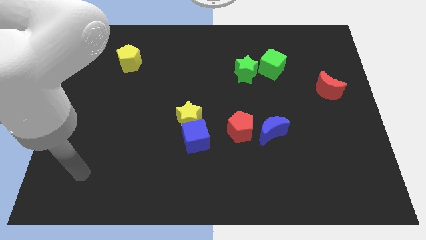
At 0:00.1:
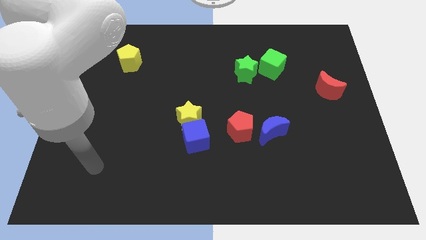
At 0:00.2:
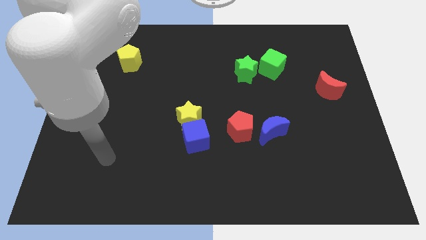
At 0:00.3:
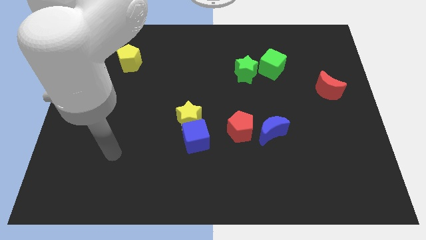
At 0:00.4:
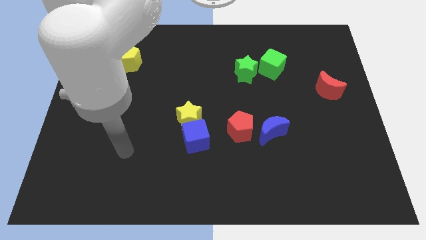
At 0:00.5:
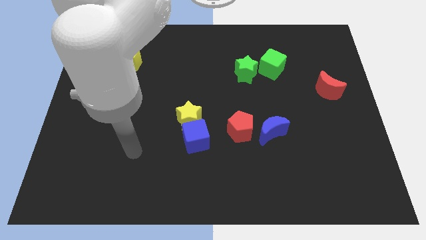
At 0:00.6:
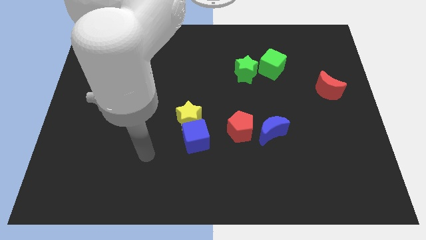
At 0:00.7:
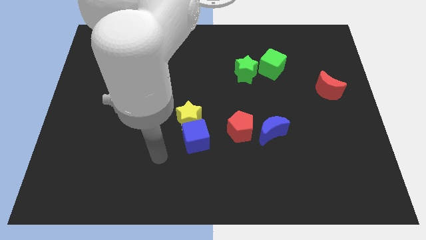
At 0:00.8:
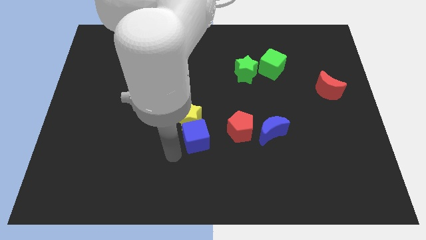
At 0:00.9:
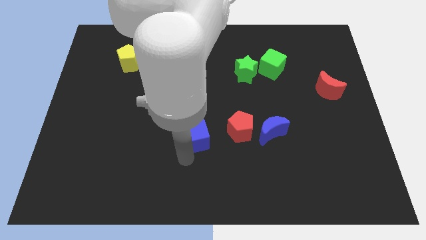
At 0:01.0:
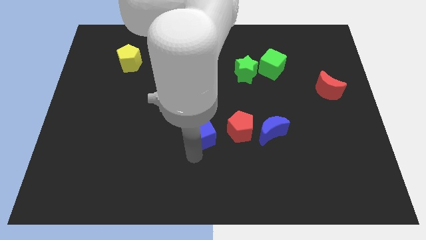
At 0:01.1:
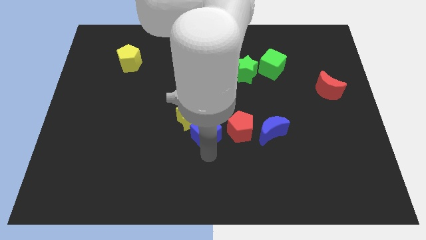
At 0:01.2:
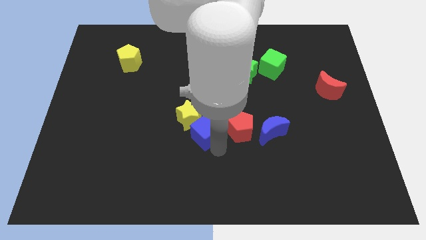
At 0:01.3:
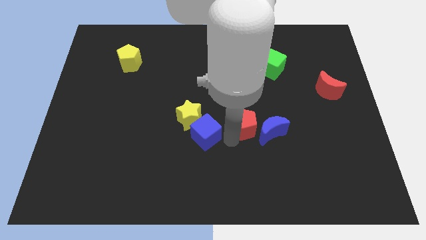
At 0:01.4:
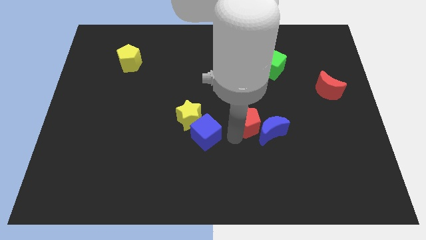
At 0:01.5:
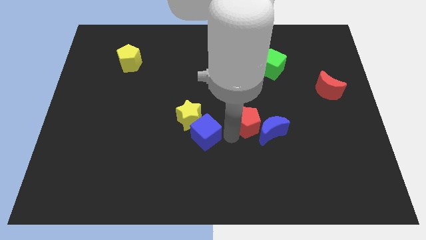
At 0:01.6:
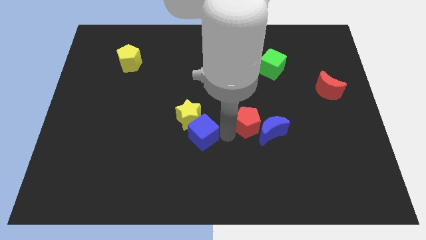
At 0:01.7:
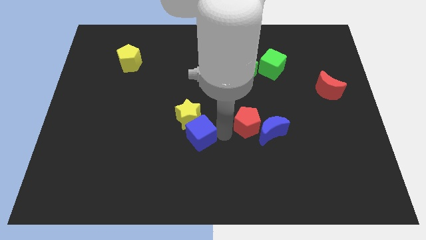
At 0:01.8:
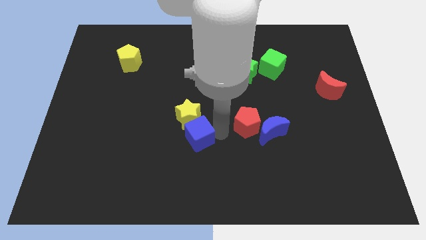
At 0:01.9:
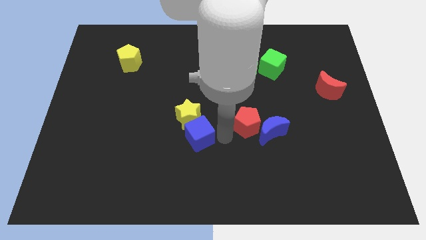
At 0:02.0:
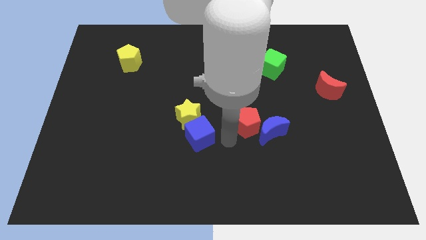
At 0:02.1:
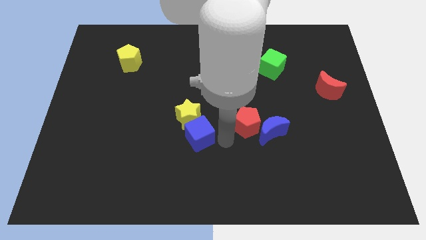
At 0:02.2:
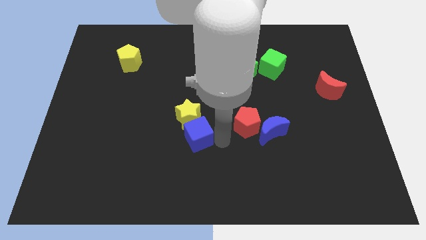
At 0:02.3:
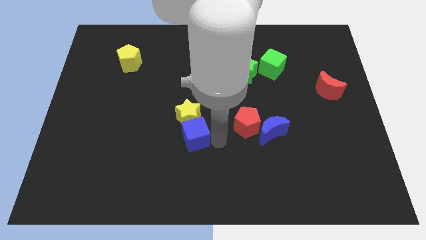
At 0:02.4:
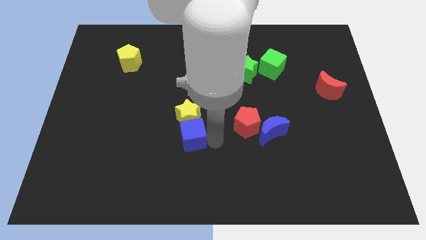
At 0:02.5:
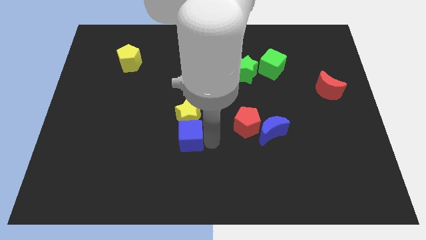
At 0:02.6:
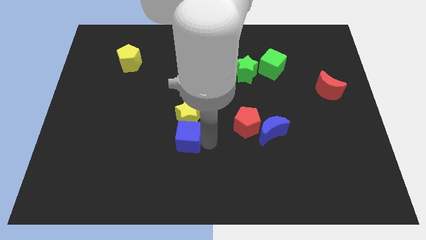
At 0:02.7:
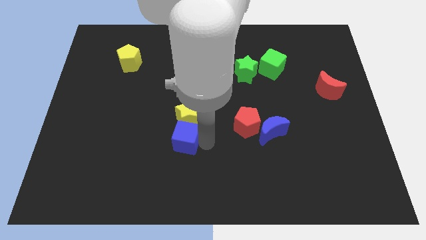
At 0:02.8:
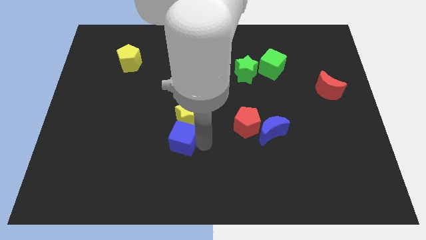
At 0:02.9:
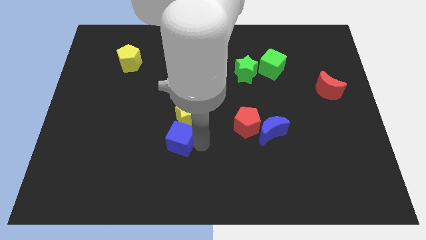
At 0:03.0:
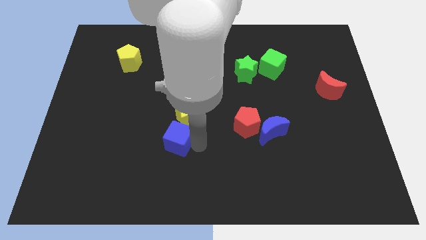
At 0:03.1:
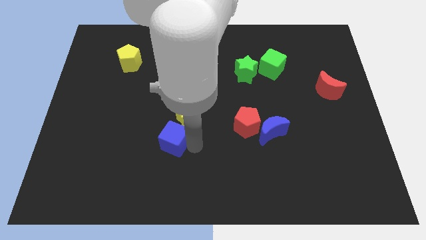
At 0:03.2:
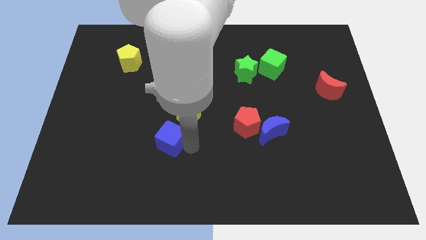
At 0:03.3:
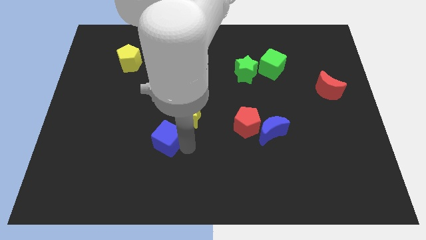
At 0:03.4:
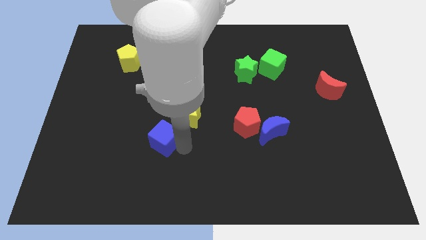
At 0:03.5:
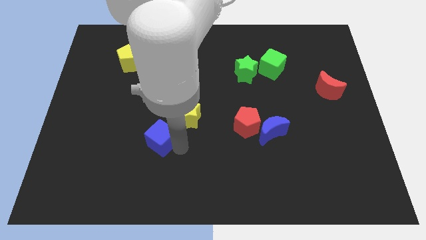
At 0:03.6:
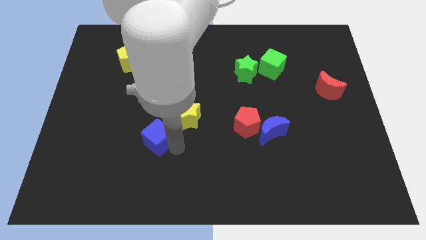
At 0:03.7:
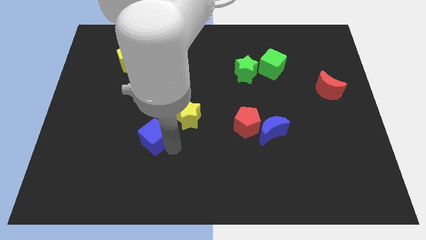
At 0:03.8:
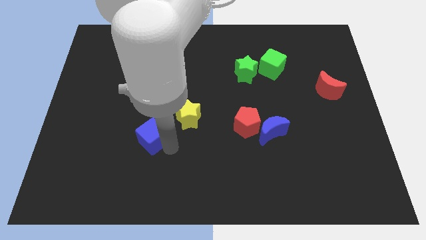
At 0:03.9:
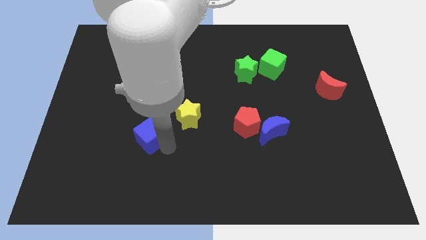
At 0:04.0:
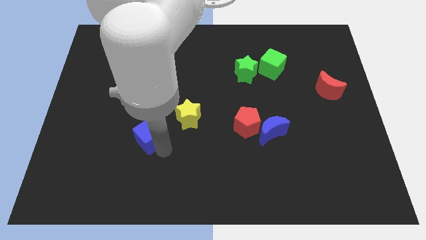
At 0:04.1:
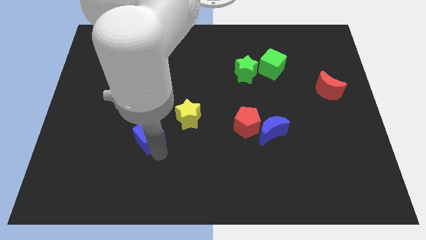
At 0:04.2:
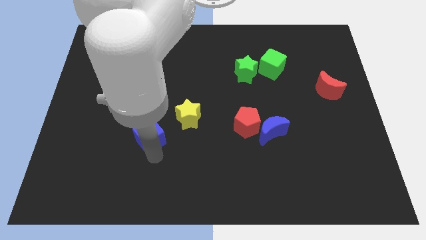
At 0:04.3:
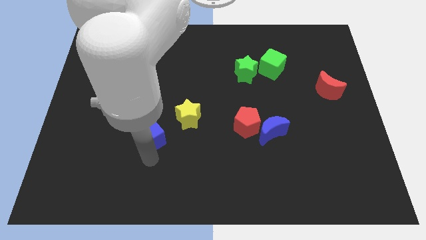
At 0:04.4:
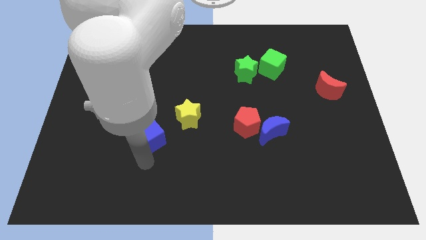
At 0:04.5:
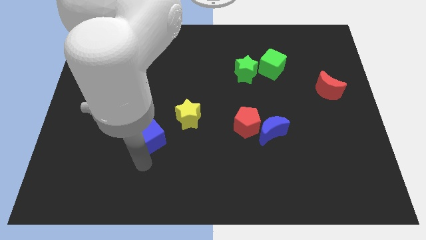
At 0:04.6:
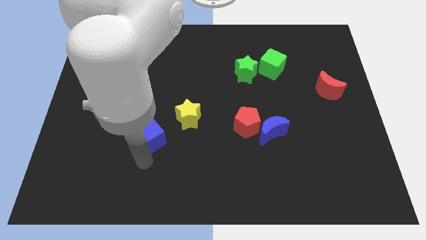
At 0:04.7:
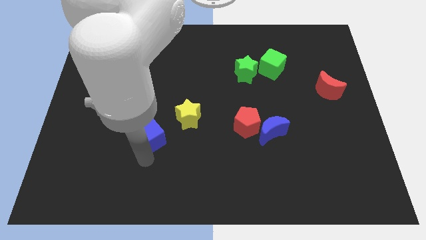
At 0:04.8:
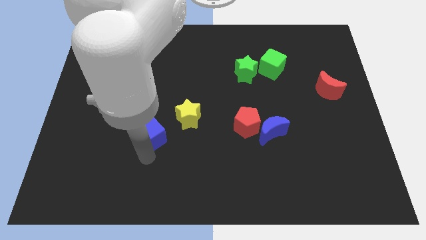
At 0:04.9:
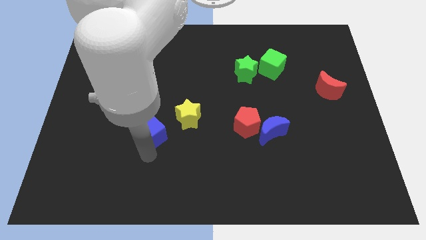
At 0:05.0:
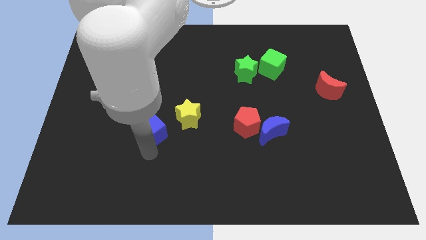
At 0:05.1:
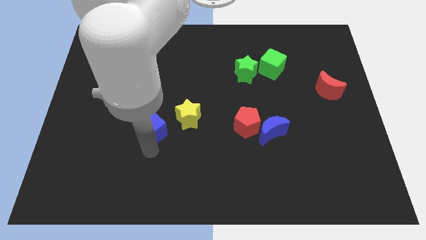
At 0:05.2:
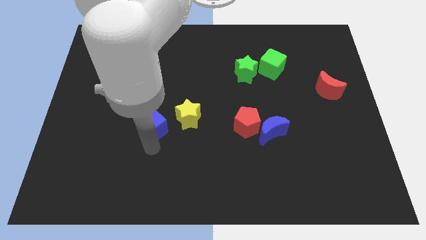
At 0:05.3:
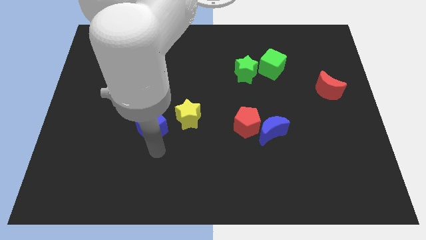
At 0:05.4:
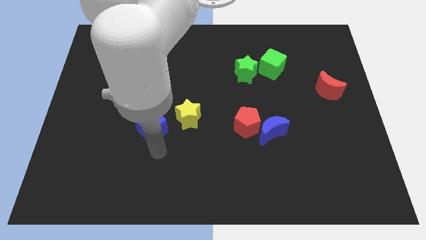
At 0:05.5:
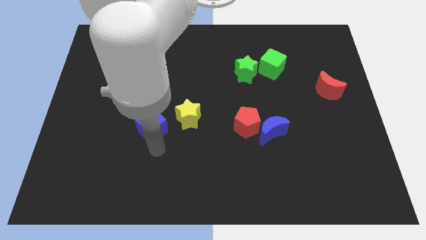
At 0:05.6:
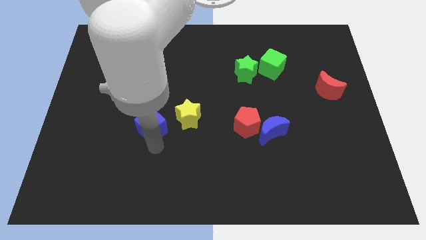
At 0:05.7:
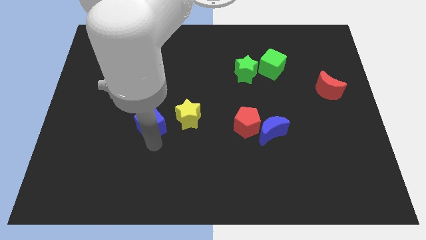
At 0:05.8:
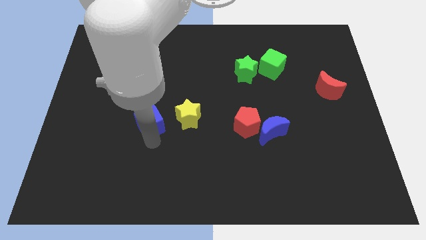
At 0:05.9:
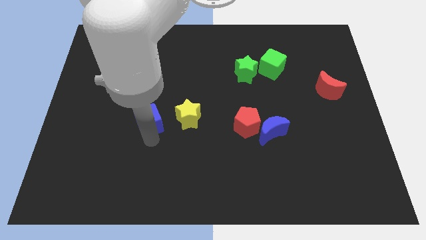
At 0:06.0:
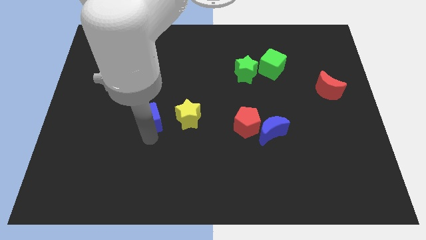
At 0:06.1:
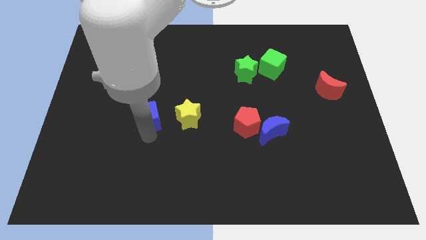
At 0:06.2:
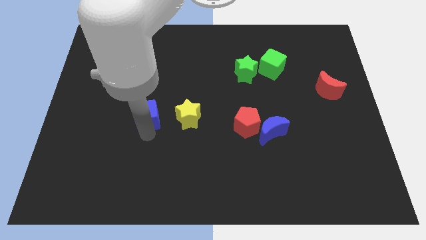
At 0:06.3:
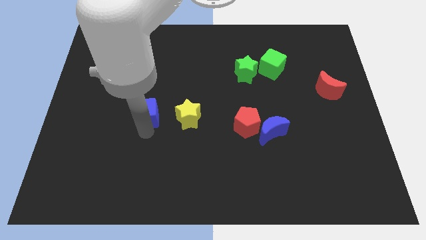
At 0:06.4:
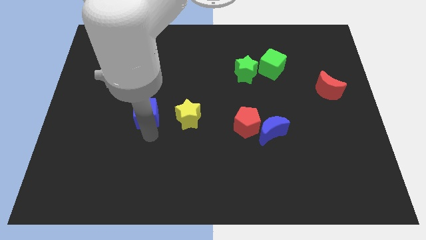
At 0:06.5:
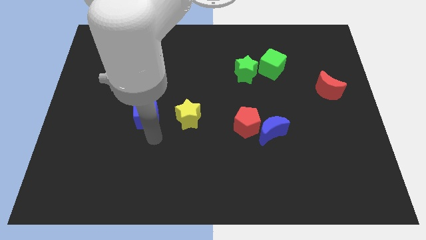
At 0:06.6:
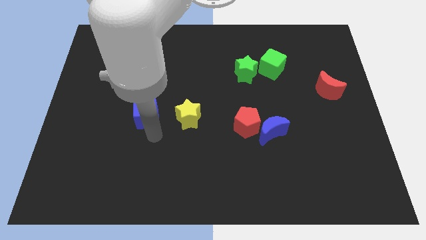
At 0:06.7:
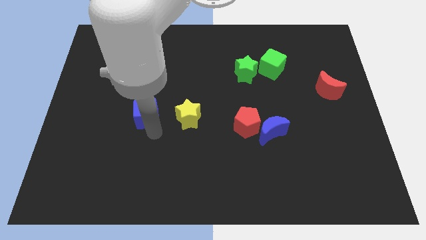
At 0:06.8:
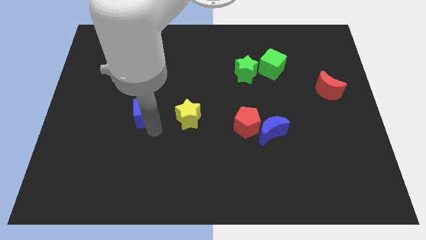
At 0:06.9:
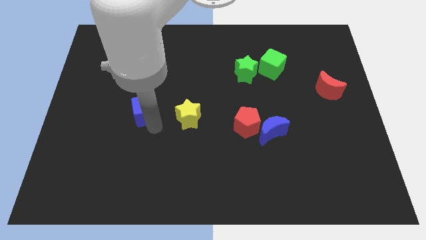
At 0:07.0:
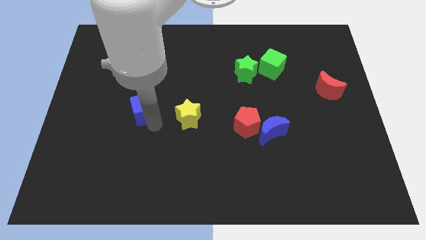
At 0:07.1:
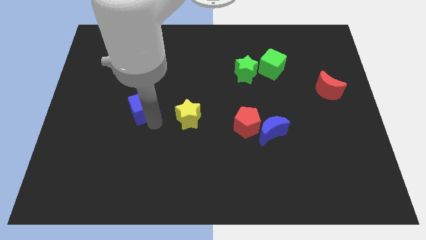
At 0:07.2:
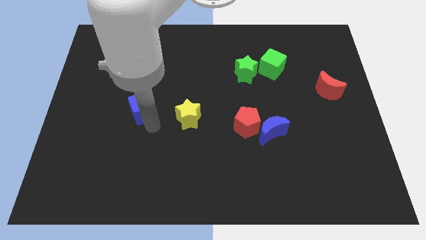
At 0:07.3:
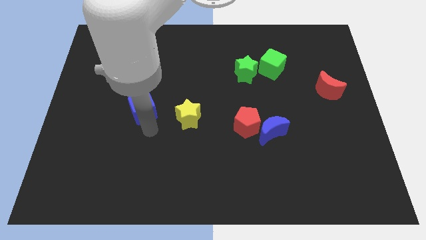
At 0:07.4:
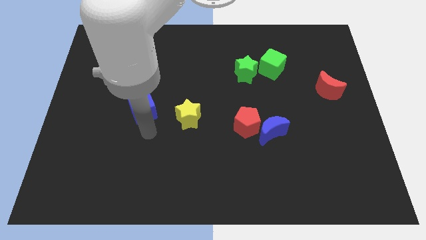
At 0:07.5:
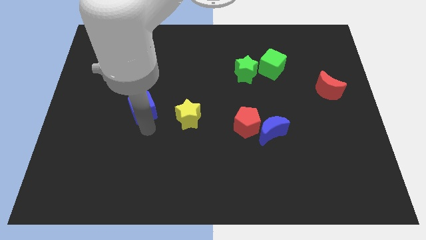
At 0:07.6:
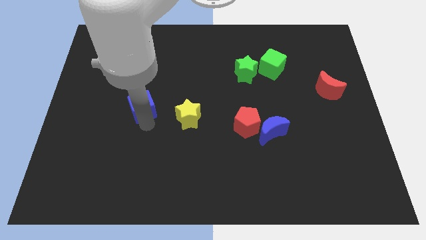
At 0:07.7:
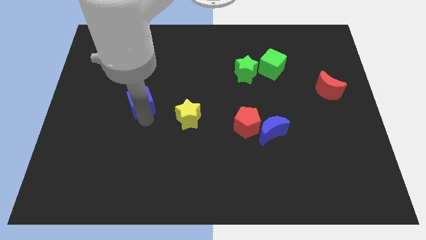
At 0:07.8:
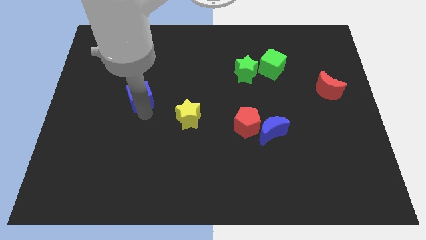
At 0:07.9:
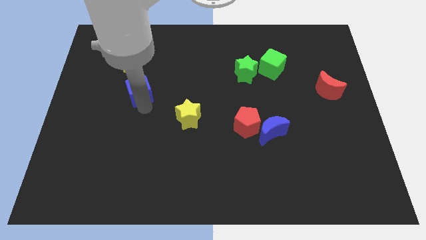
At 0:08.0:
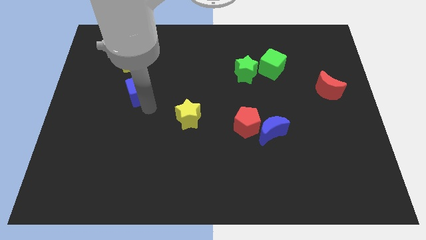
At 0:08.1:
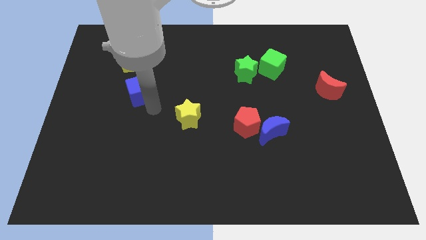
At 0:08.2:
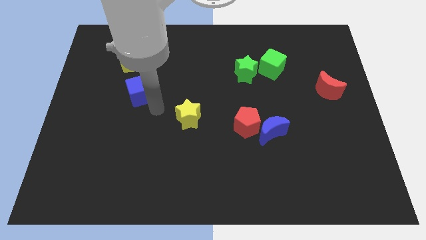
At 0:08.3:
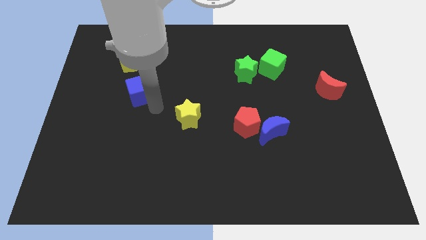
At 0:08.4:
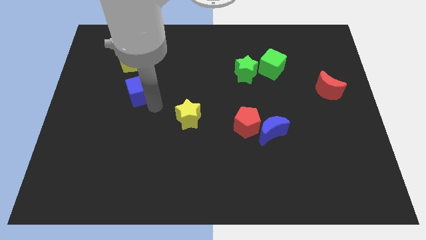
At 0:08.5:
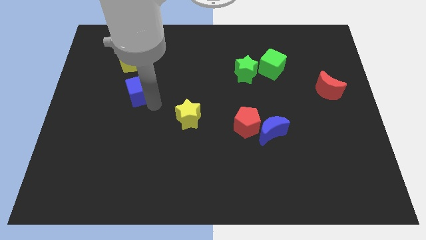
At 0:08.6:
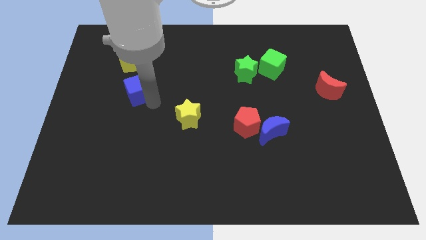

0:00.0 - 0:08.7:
slide the blue cube upwards and then to the left
